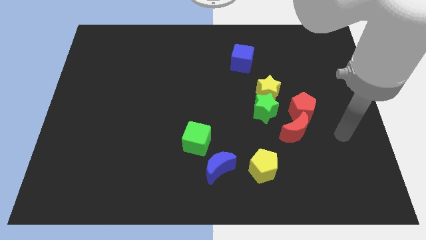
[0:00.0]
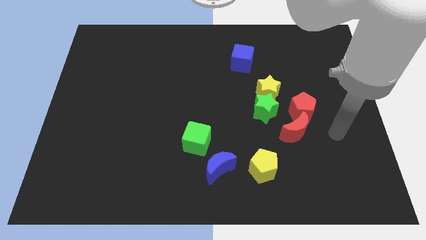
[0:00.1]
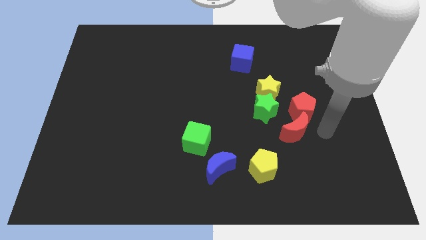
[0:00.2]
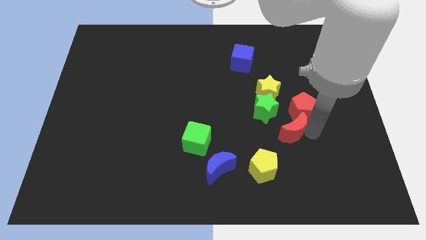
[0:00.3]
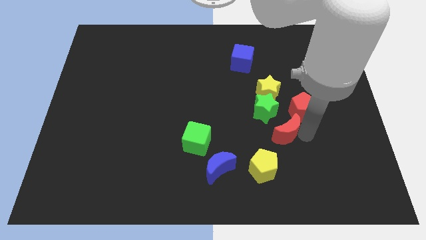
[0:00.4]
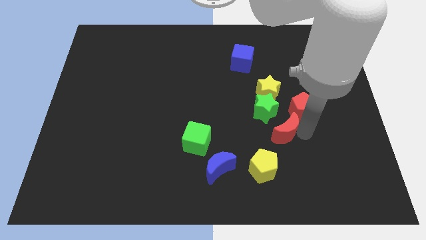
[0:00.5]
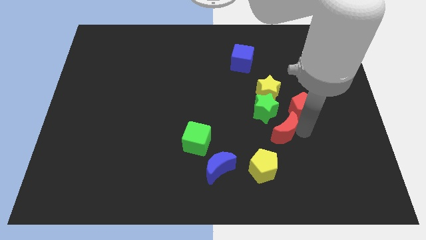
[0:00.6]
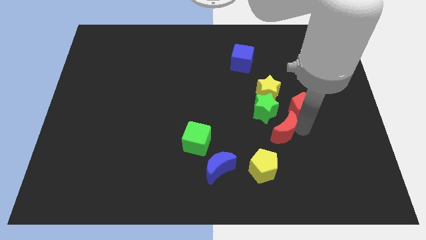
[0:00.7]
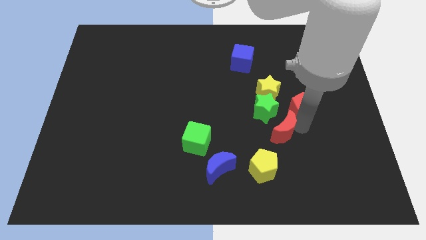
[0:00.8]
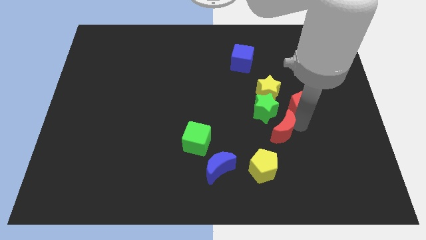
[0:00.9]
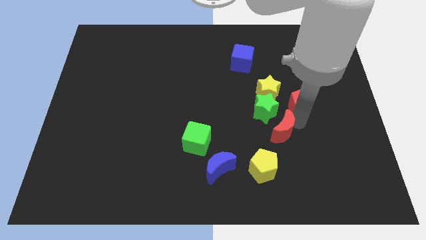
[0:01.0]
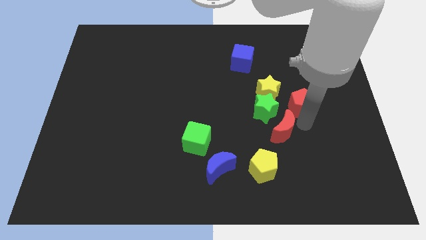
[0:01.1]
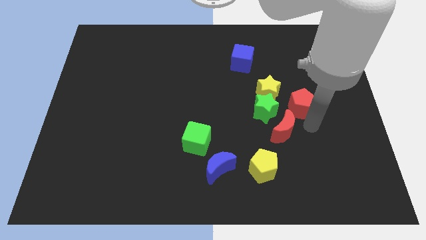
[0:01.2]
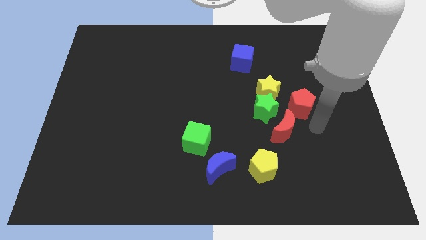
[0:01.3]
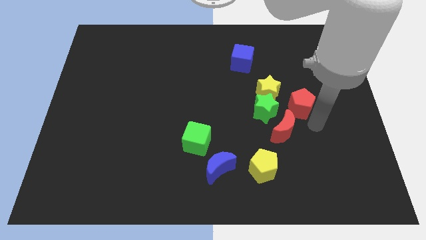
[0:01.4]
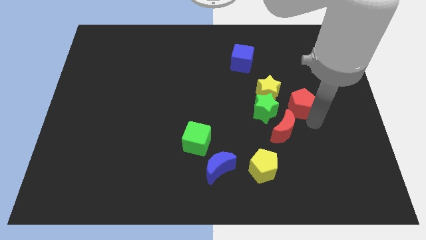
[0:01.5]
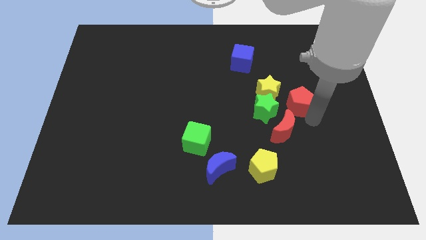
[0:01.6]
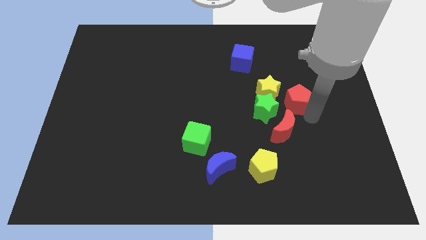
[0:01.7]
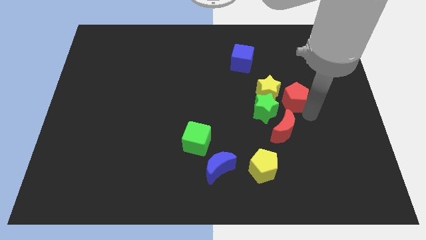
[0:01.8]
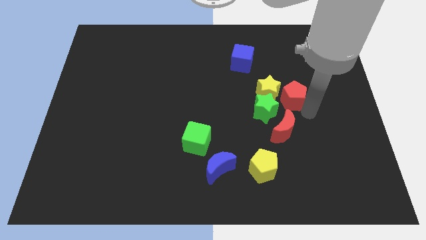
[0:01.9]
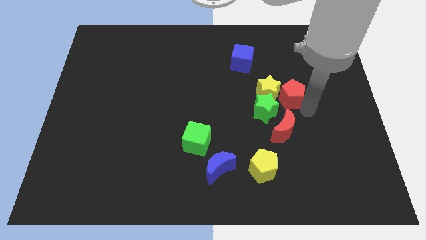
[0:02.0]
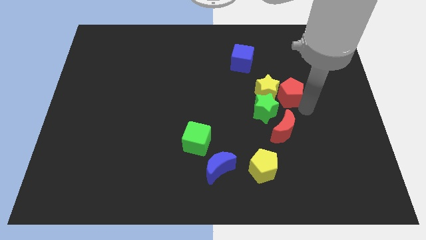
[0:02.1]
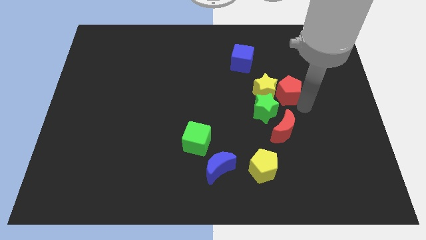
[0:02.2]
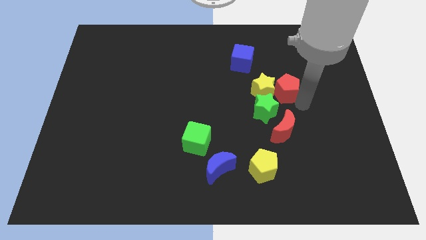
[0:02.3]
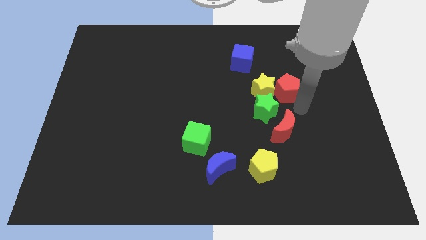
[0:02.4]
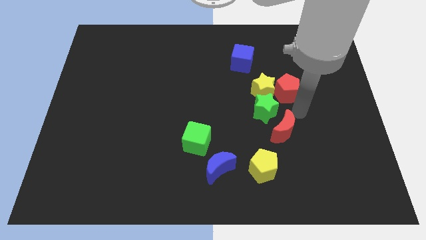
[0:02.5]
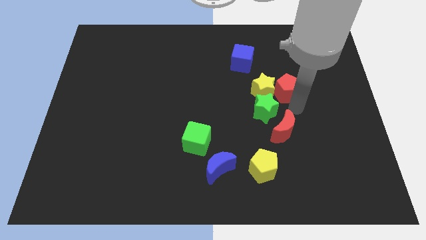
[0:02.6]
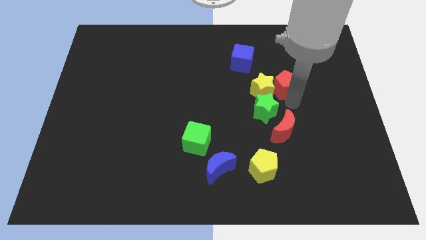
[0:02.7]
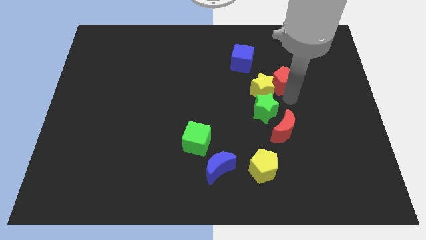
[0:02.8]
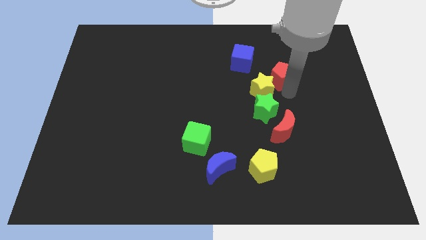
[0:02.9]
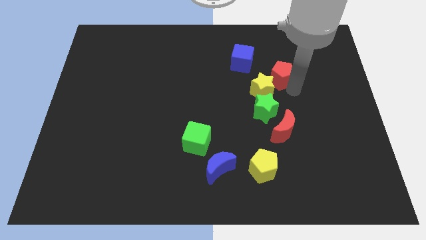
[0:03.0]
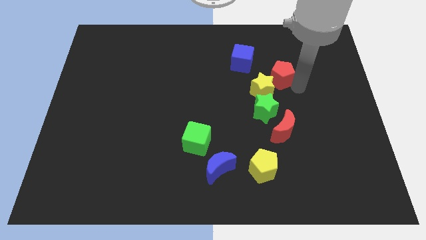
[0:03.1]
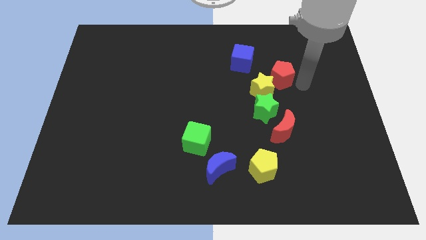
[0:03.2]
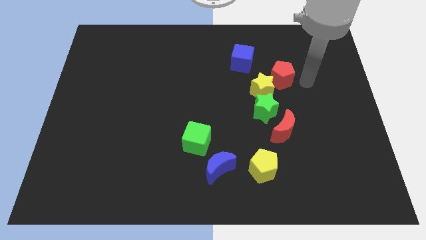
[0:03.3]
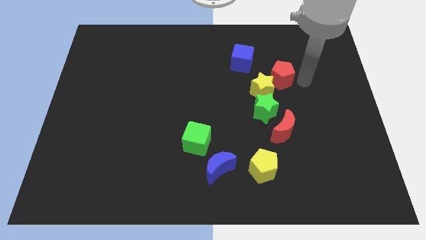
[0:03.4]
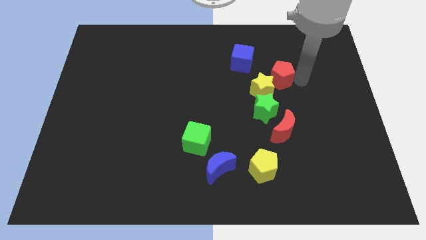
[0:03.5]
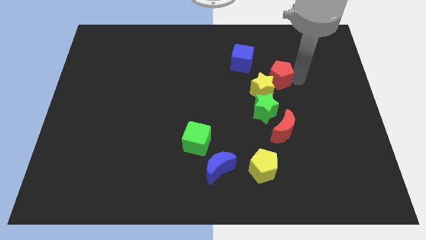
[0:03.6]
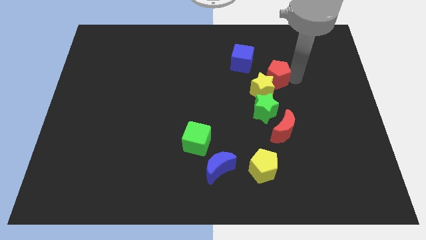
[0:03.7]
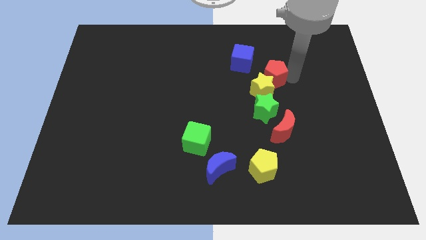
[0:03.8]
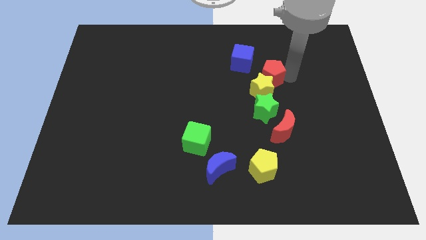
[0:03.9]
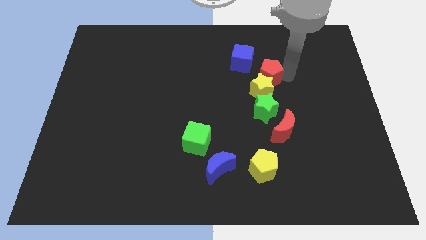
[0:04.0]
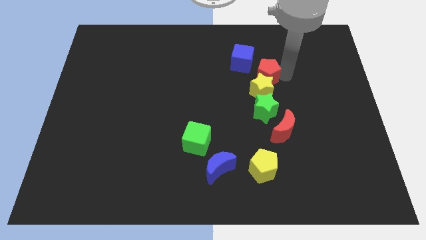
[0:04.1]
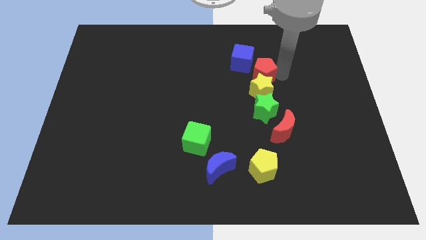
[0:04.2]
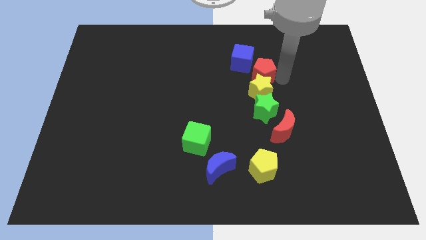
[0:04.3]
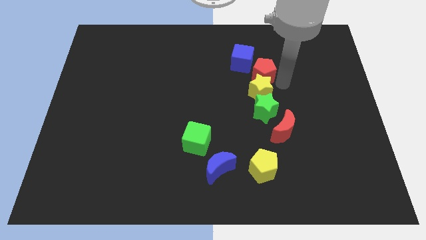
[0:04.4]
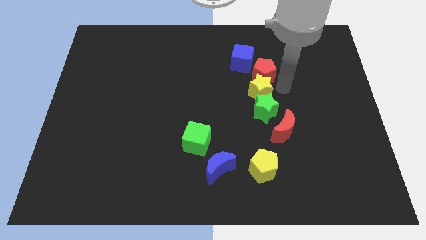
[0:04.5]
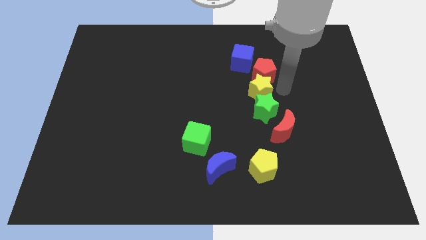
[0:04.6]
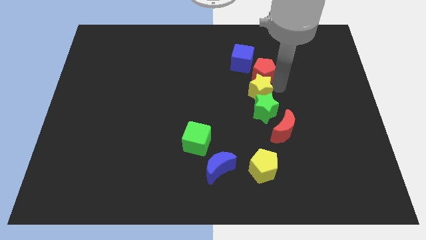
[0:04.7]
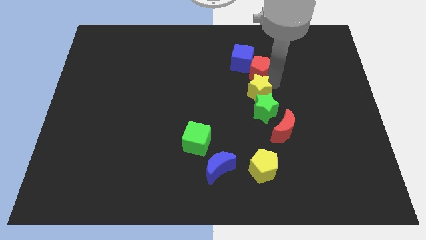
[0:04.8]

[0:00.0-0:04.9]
move the red pentagon close to the blue cube

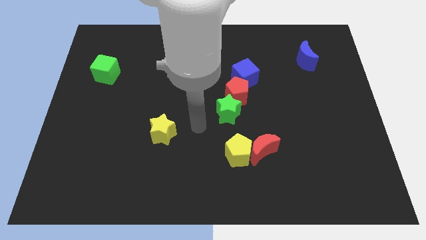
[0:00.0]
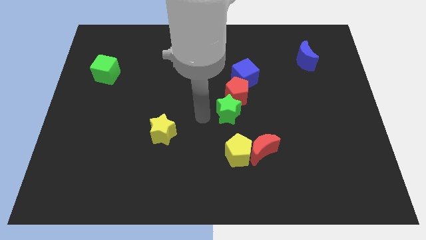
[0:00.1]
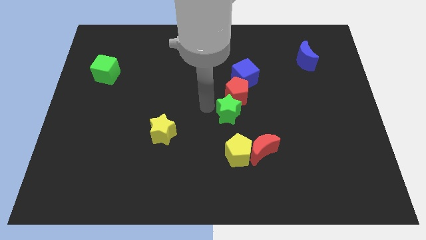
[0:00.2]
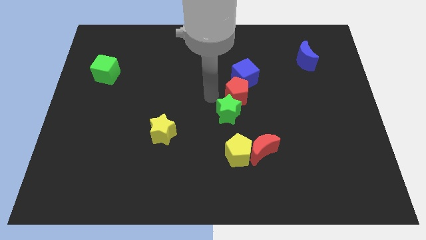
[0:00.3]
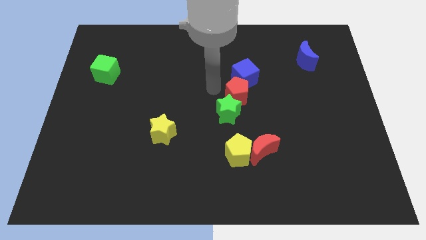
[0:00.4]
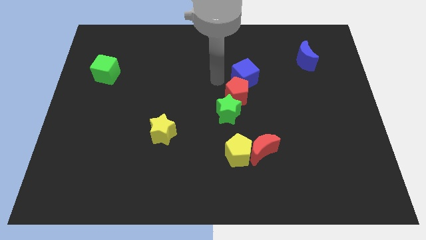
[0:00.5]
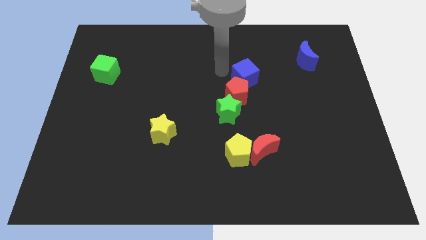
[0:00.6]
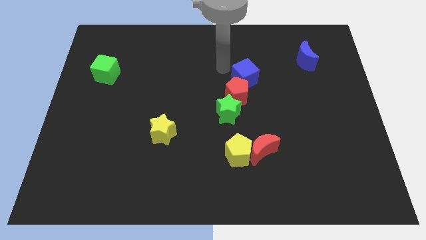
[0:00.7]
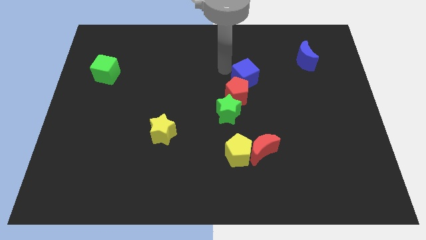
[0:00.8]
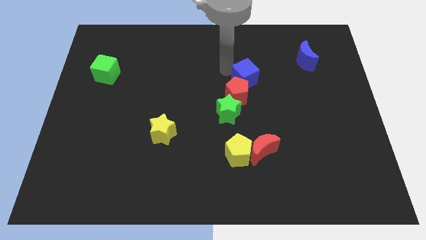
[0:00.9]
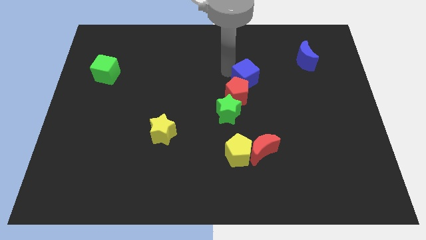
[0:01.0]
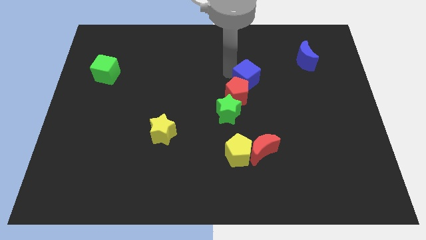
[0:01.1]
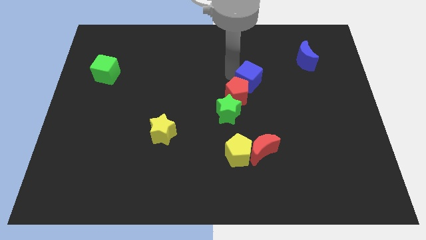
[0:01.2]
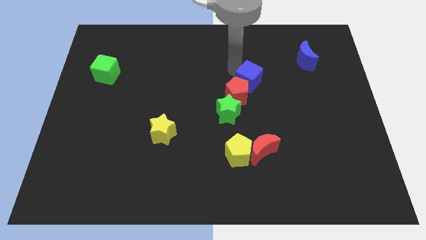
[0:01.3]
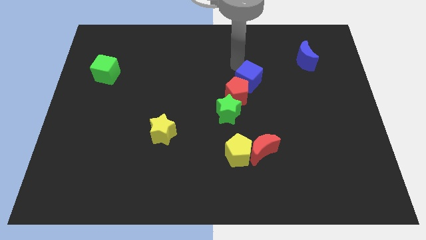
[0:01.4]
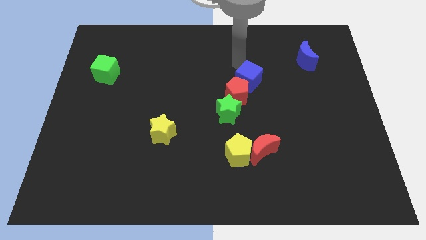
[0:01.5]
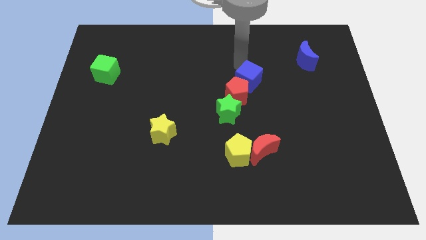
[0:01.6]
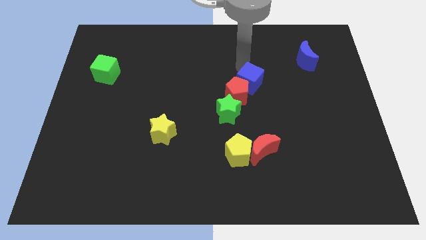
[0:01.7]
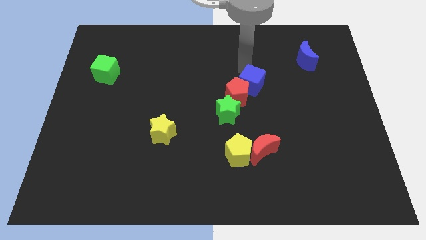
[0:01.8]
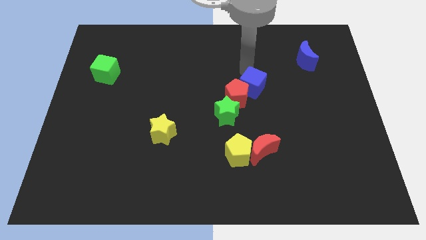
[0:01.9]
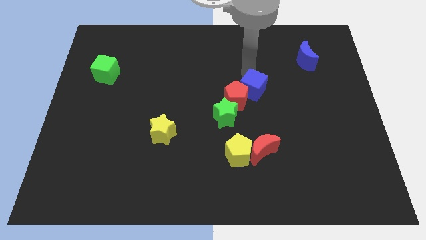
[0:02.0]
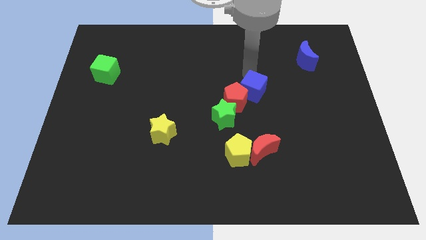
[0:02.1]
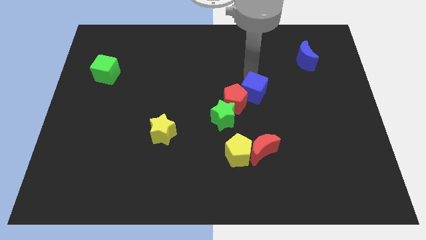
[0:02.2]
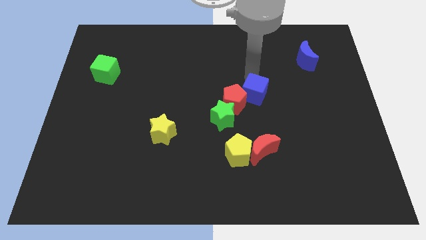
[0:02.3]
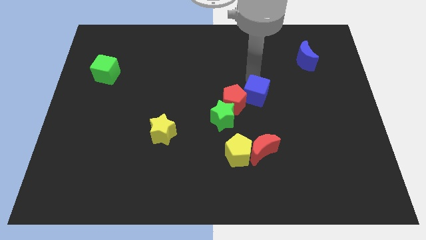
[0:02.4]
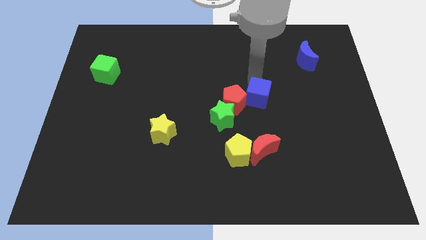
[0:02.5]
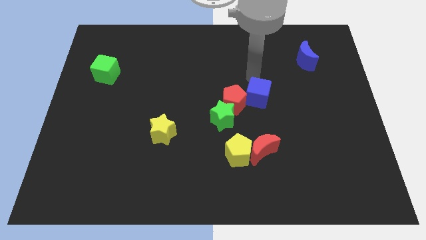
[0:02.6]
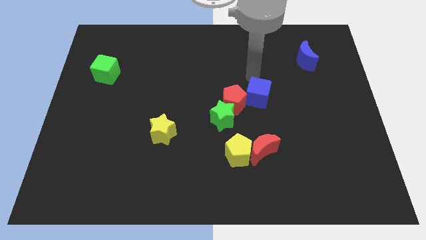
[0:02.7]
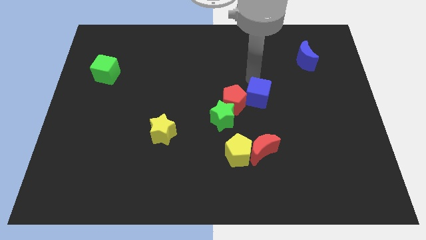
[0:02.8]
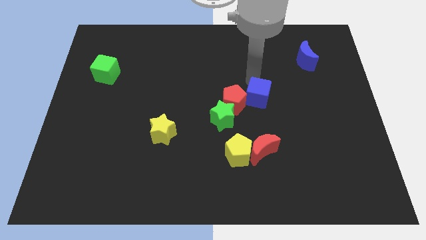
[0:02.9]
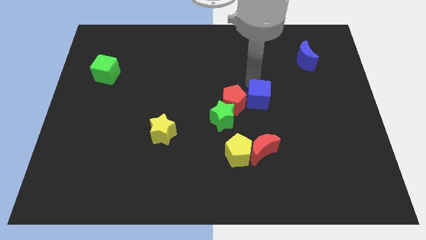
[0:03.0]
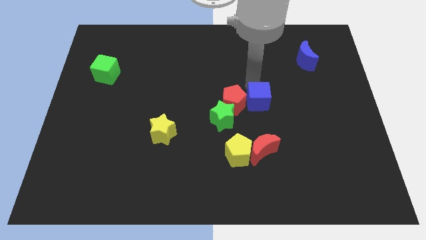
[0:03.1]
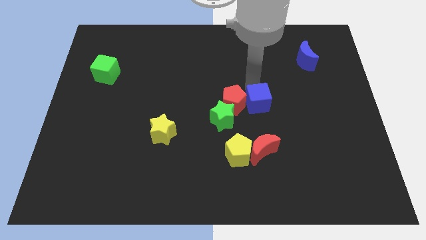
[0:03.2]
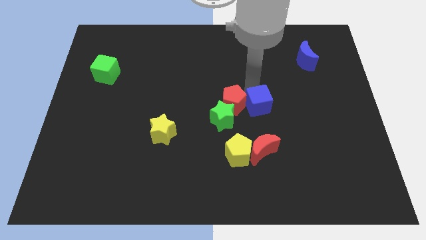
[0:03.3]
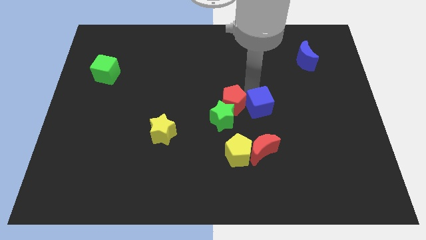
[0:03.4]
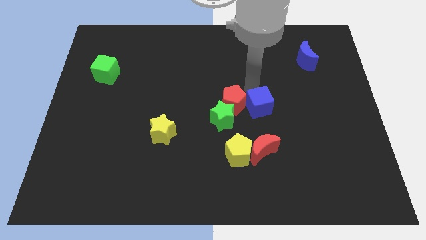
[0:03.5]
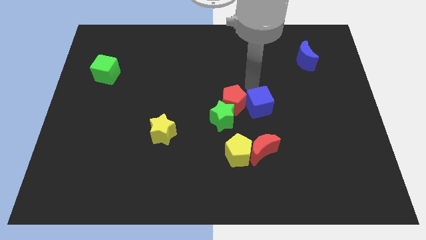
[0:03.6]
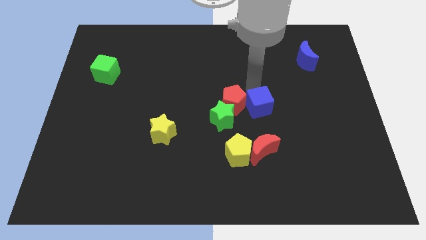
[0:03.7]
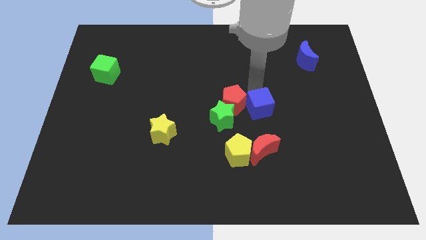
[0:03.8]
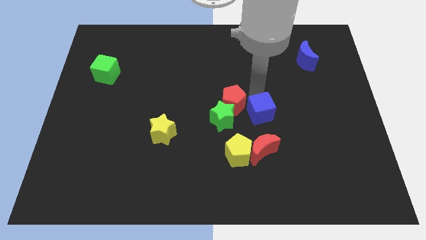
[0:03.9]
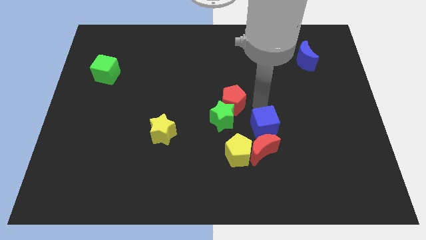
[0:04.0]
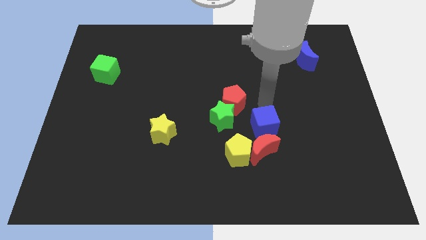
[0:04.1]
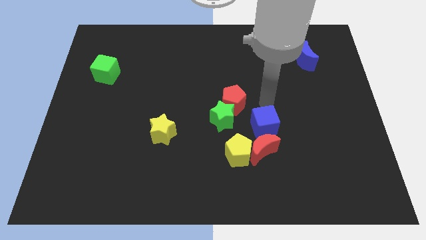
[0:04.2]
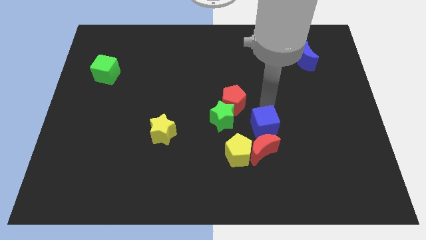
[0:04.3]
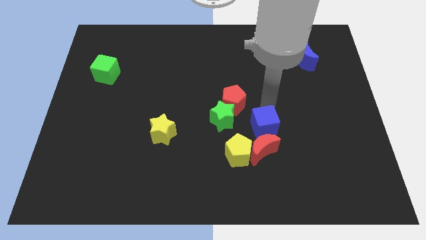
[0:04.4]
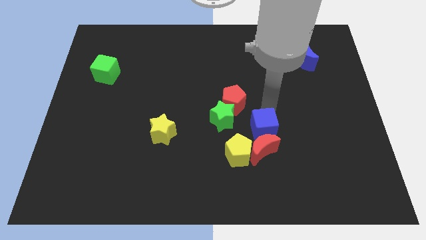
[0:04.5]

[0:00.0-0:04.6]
push the blue cube to the red moon
